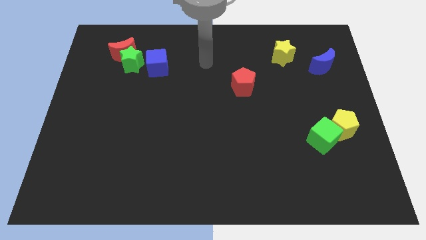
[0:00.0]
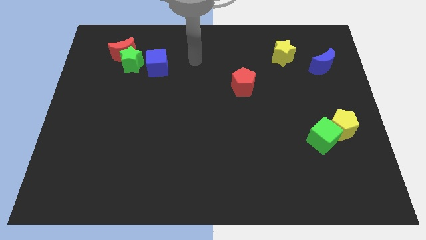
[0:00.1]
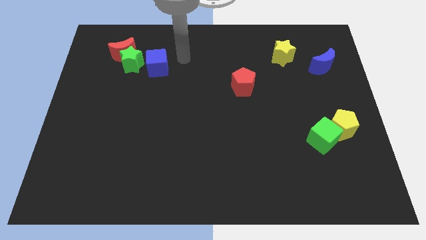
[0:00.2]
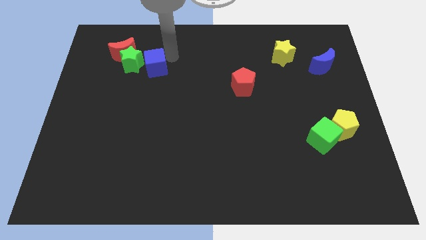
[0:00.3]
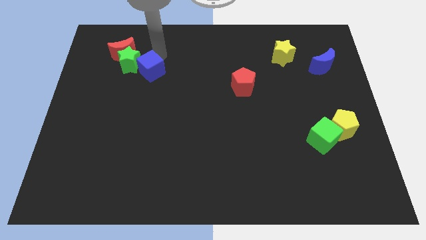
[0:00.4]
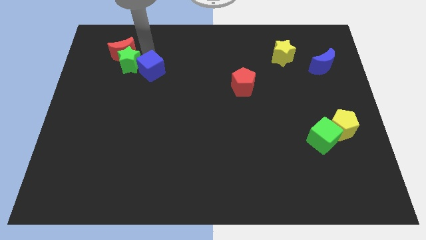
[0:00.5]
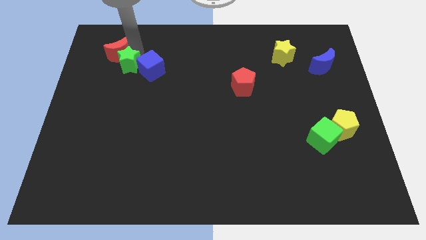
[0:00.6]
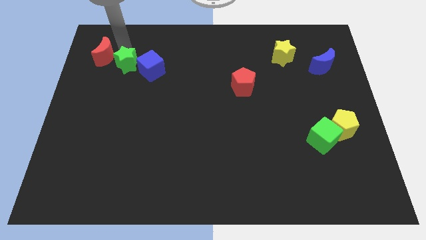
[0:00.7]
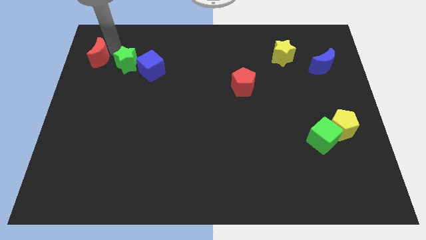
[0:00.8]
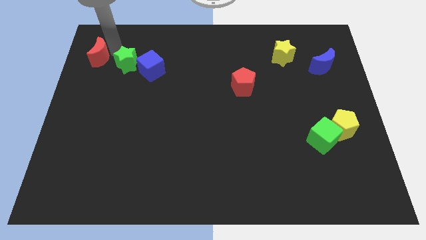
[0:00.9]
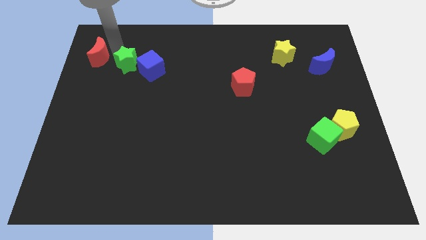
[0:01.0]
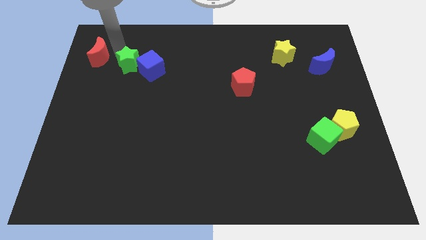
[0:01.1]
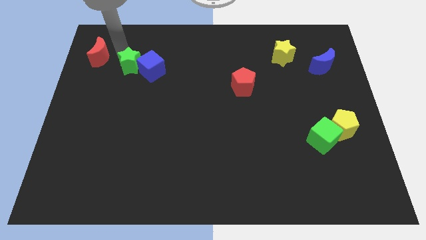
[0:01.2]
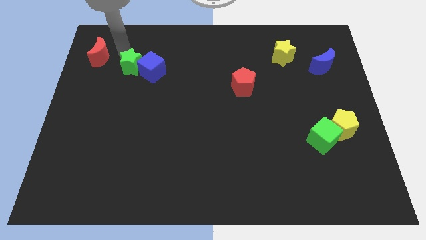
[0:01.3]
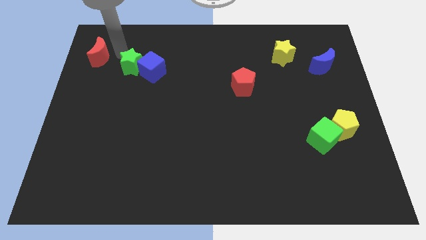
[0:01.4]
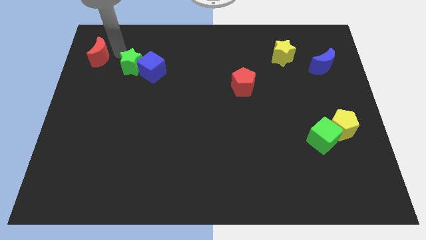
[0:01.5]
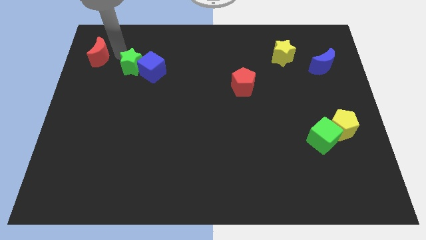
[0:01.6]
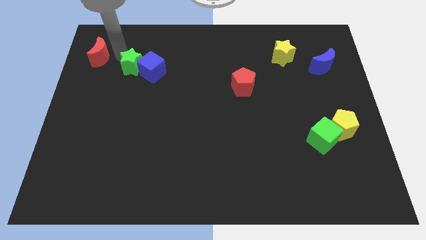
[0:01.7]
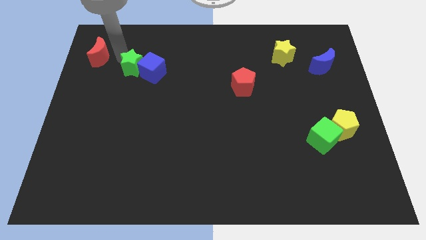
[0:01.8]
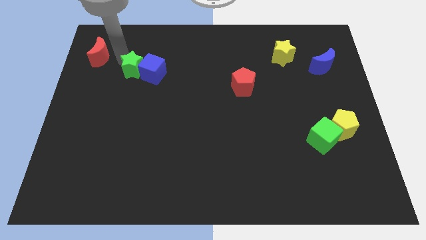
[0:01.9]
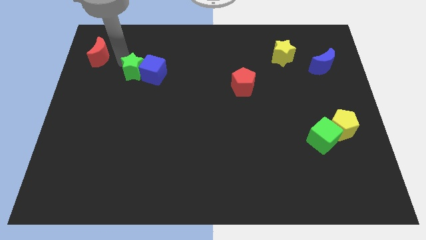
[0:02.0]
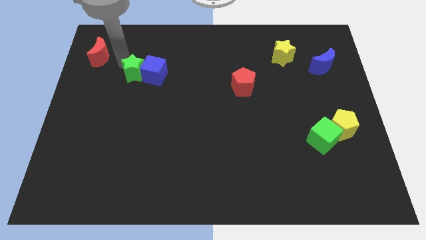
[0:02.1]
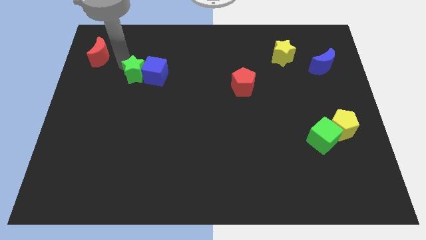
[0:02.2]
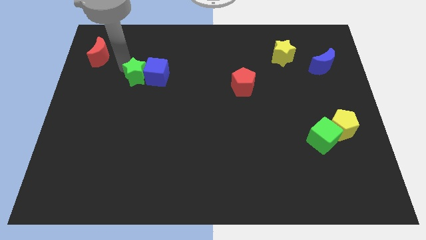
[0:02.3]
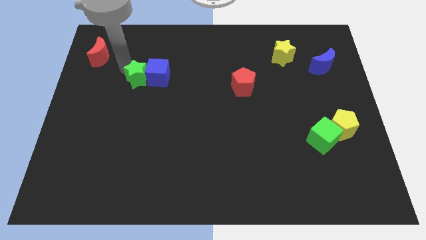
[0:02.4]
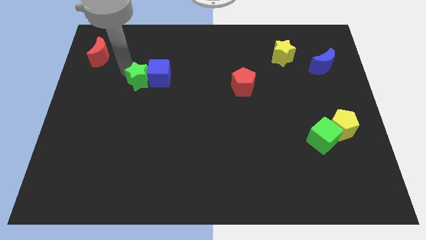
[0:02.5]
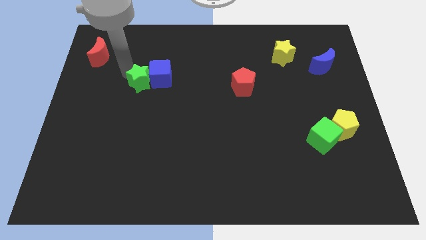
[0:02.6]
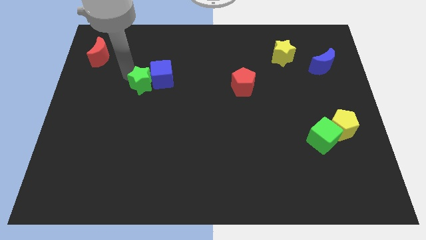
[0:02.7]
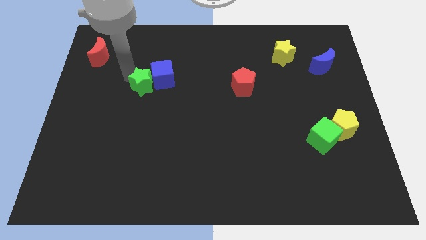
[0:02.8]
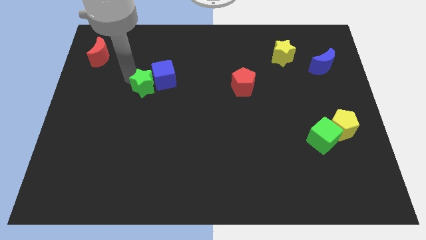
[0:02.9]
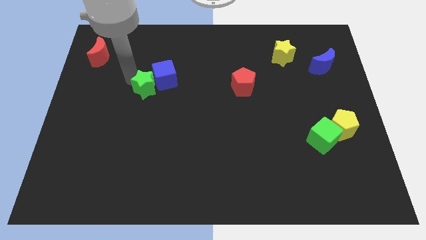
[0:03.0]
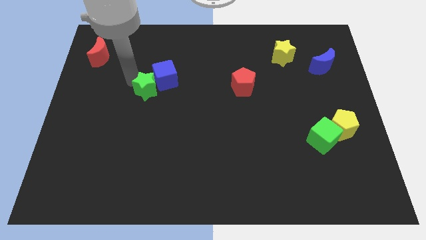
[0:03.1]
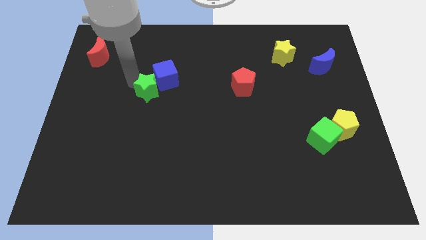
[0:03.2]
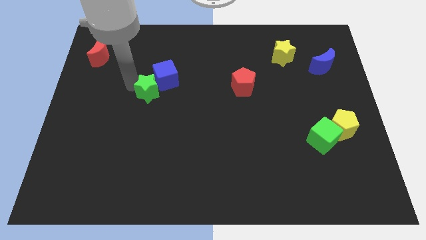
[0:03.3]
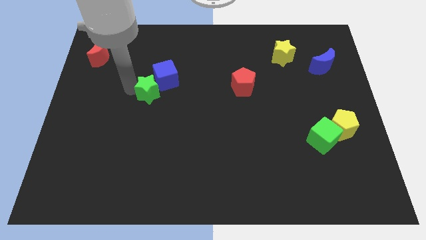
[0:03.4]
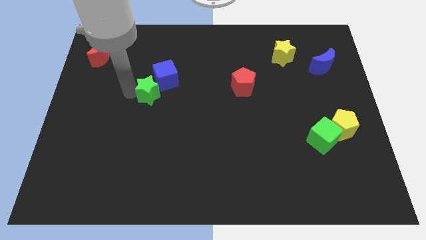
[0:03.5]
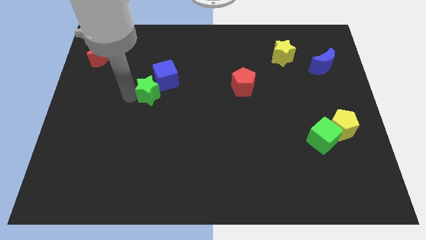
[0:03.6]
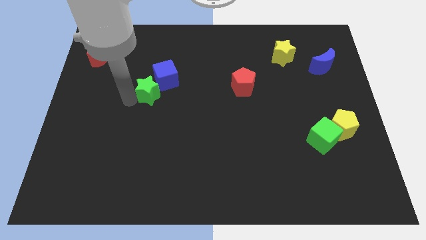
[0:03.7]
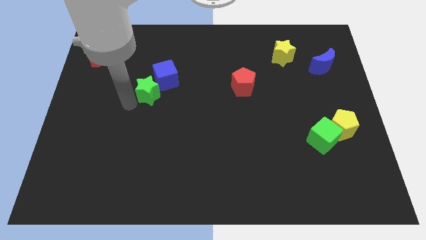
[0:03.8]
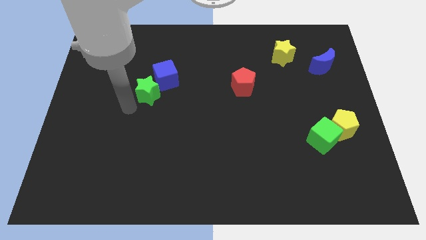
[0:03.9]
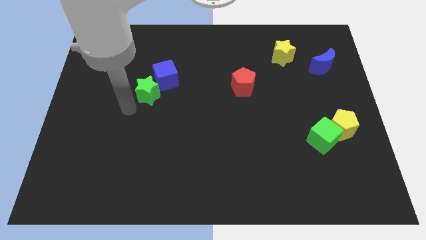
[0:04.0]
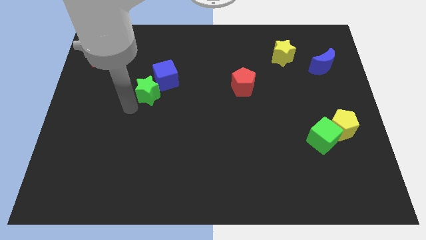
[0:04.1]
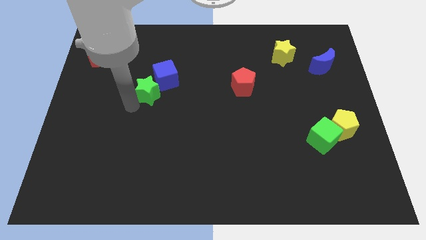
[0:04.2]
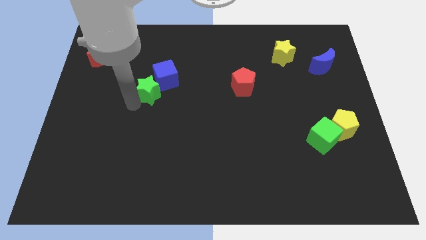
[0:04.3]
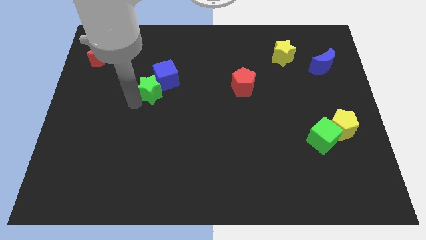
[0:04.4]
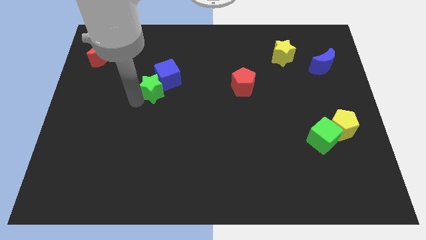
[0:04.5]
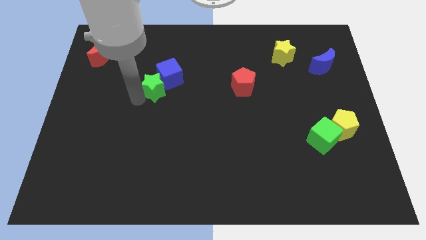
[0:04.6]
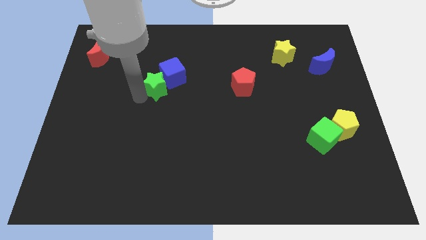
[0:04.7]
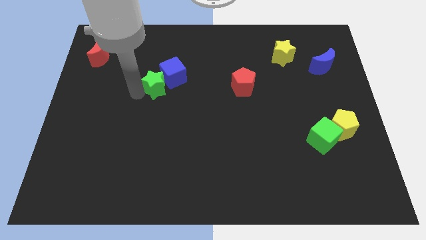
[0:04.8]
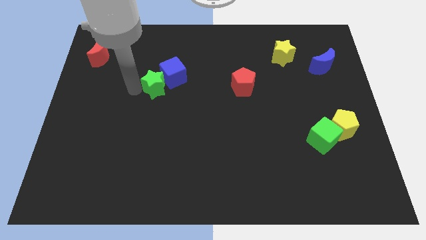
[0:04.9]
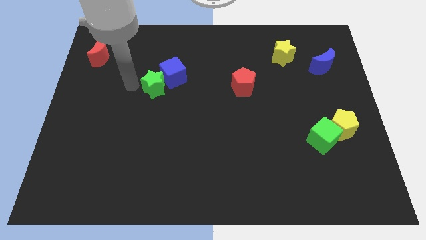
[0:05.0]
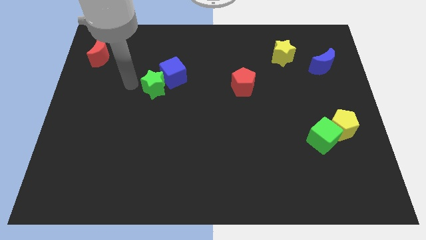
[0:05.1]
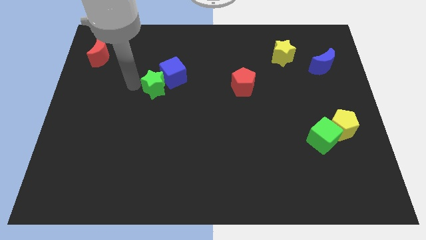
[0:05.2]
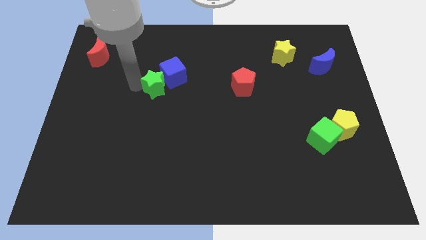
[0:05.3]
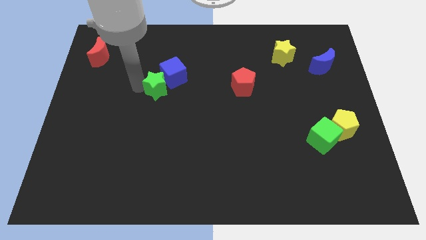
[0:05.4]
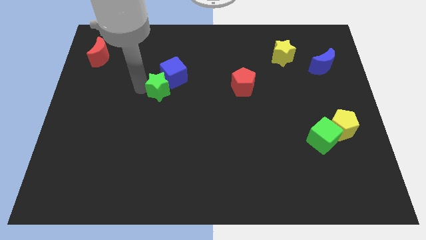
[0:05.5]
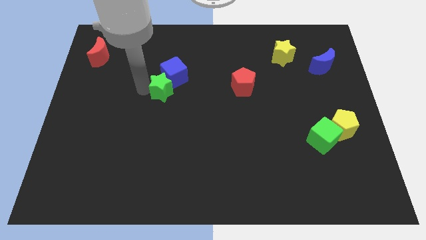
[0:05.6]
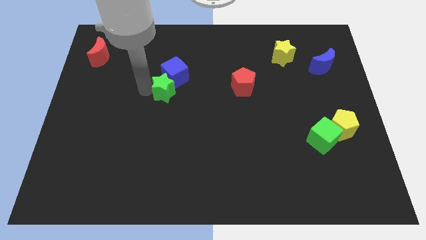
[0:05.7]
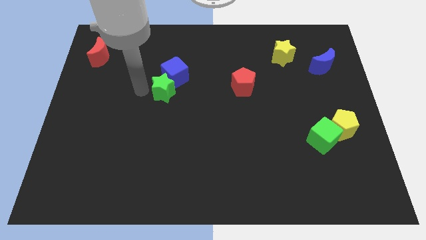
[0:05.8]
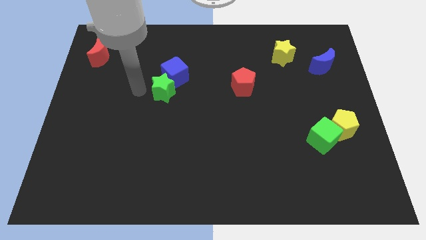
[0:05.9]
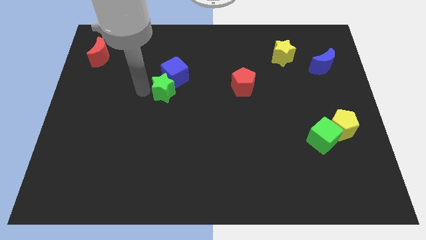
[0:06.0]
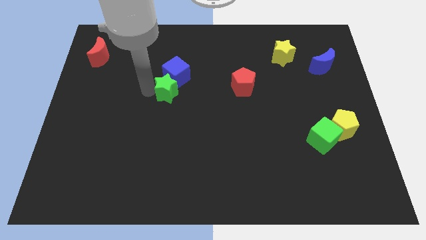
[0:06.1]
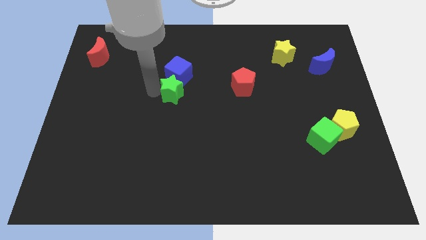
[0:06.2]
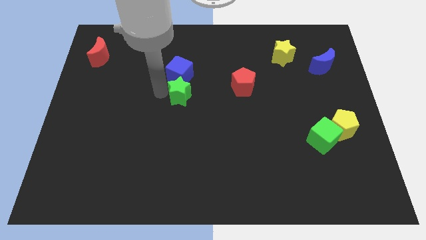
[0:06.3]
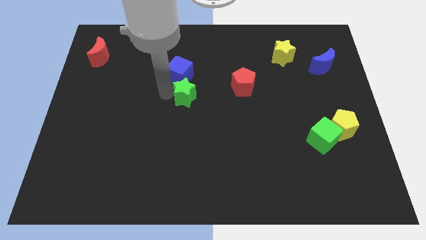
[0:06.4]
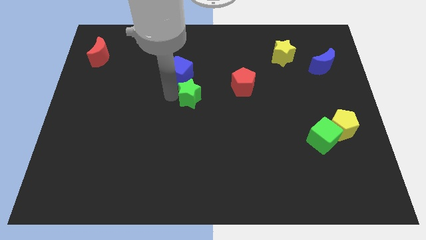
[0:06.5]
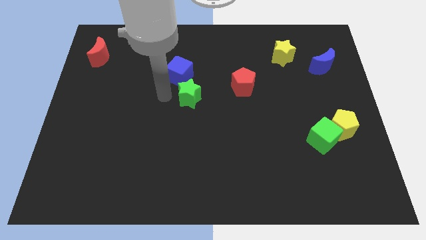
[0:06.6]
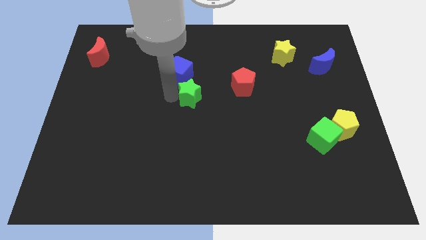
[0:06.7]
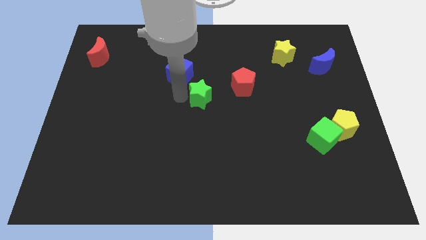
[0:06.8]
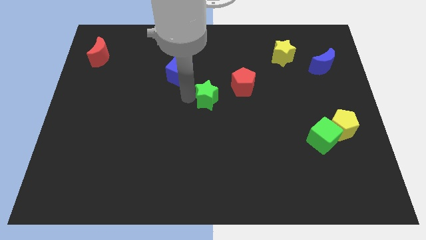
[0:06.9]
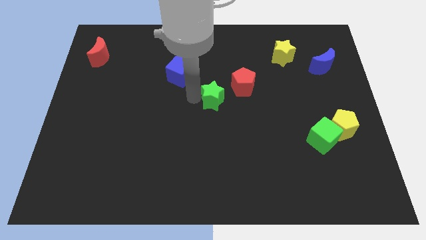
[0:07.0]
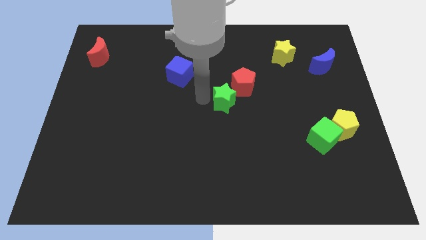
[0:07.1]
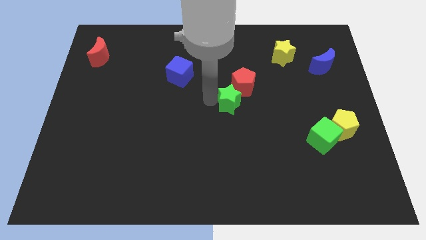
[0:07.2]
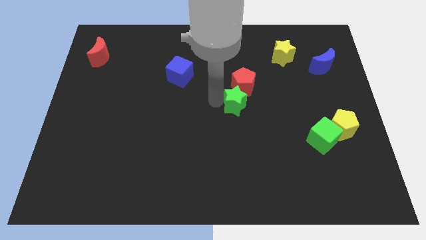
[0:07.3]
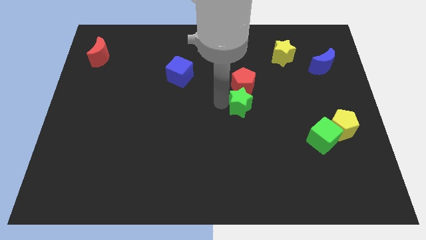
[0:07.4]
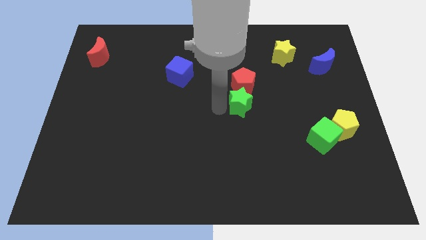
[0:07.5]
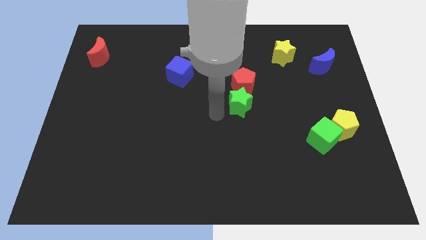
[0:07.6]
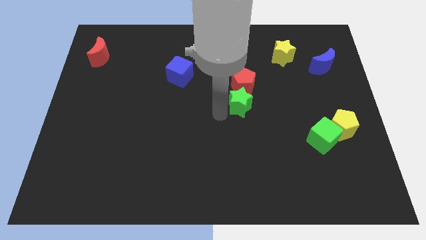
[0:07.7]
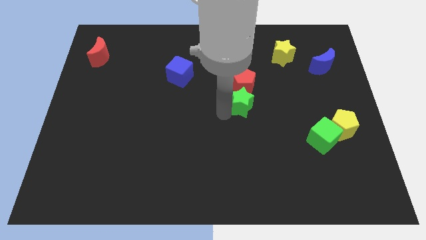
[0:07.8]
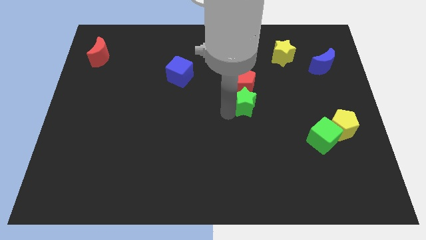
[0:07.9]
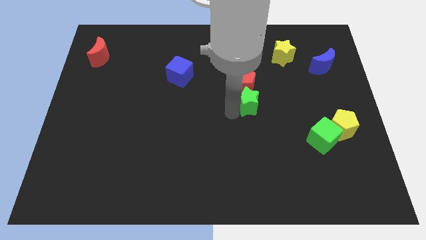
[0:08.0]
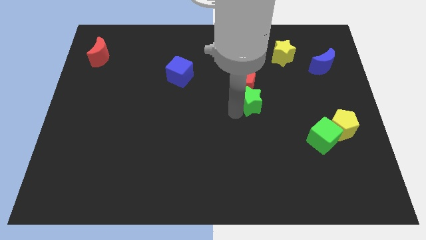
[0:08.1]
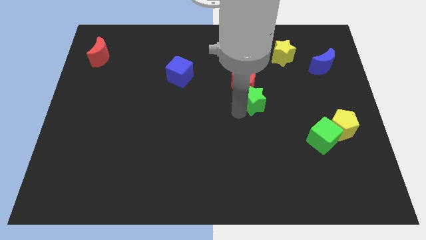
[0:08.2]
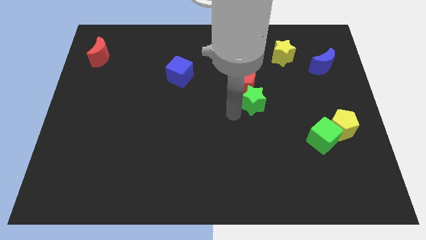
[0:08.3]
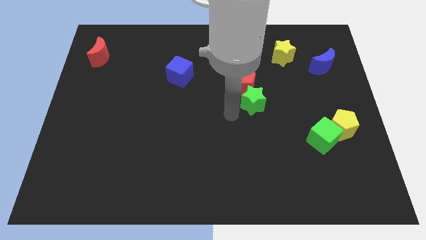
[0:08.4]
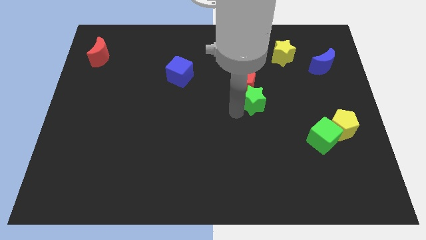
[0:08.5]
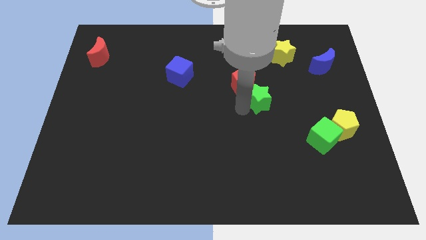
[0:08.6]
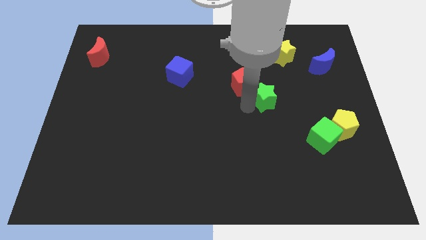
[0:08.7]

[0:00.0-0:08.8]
put the green star to the right of the red pentagon
